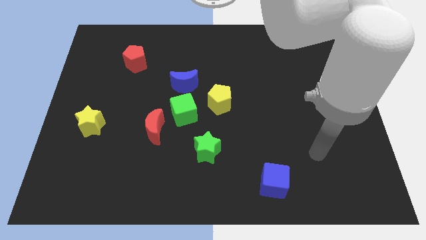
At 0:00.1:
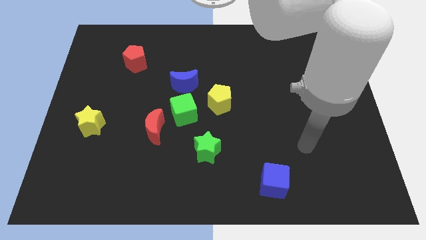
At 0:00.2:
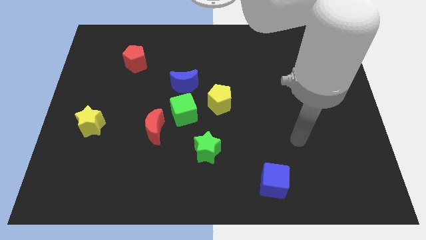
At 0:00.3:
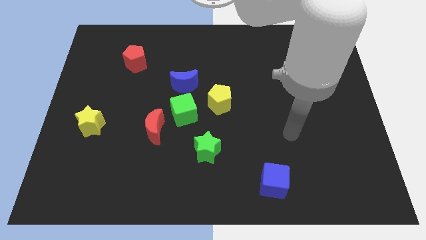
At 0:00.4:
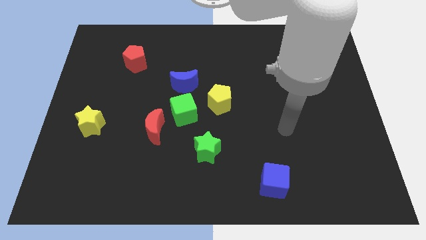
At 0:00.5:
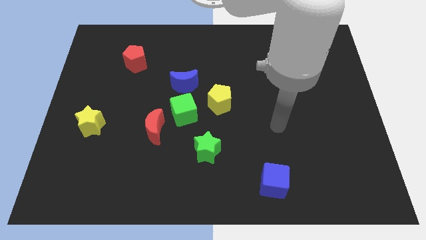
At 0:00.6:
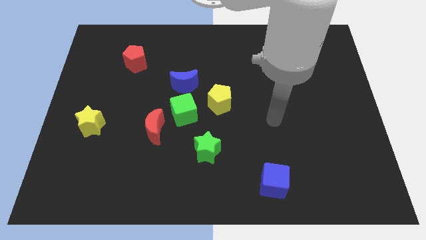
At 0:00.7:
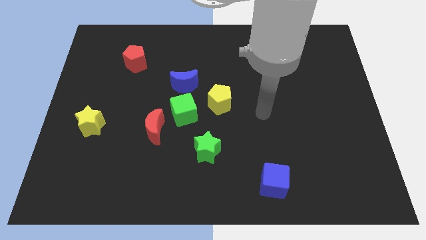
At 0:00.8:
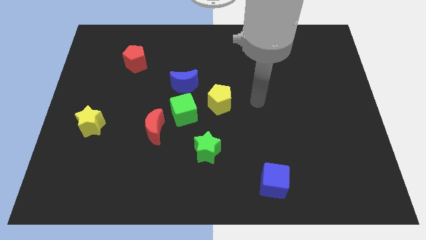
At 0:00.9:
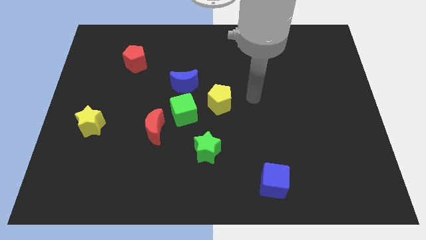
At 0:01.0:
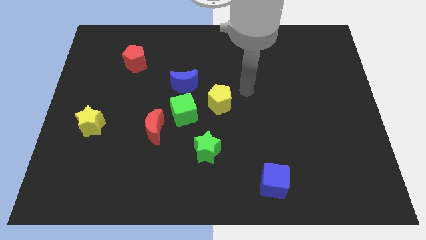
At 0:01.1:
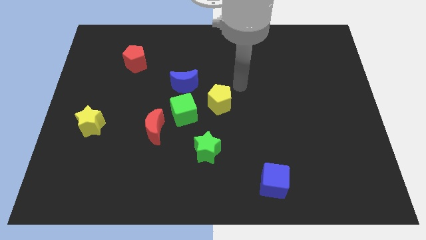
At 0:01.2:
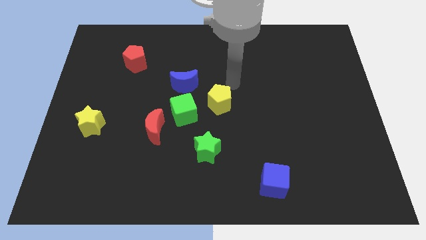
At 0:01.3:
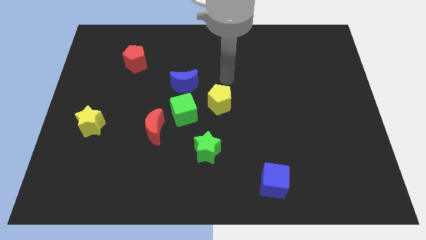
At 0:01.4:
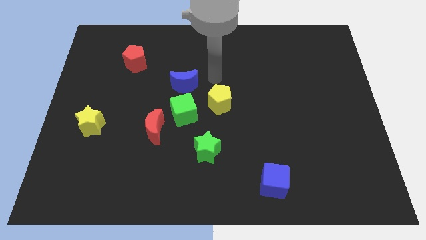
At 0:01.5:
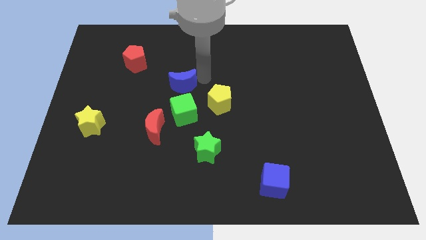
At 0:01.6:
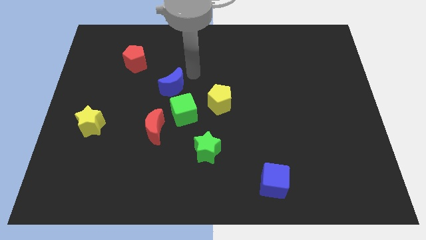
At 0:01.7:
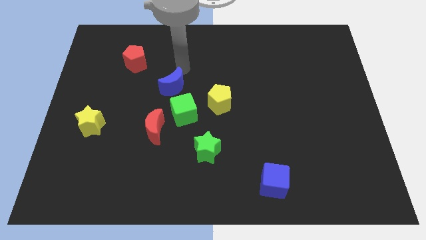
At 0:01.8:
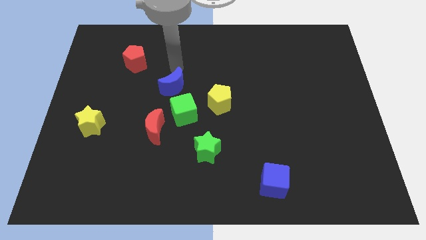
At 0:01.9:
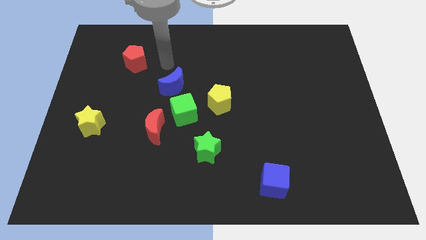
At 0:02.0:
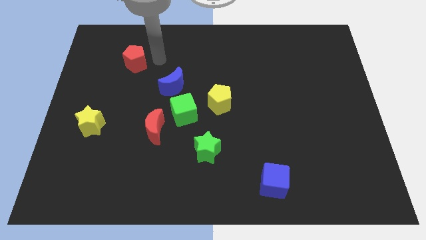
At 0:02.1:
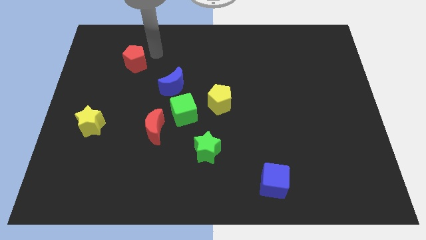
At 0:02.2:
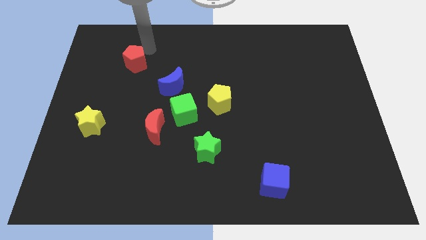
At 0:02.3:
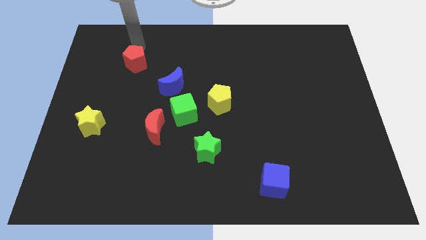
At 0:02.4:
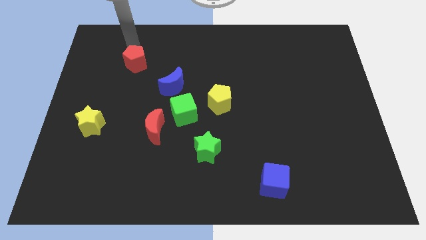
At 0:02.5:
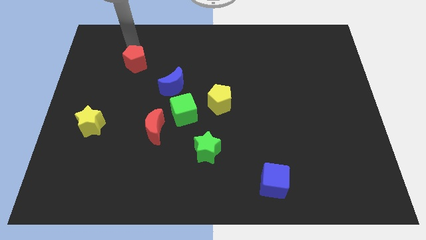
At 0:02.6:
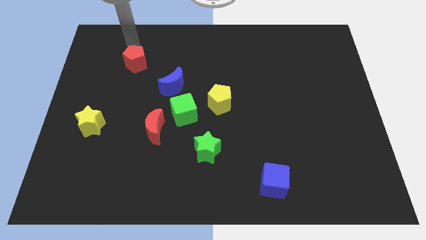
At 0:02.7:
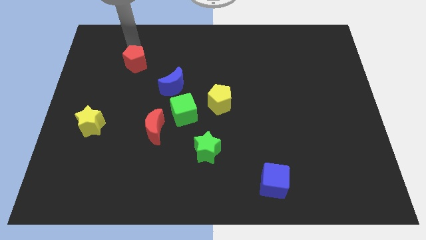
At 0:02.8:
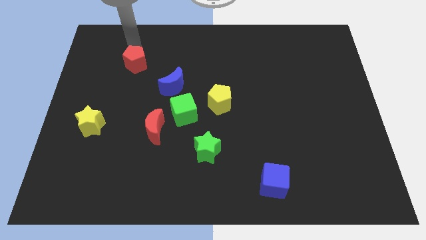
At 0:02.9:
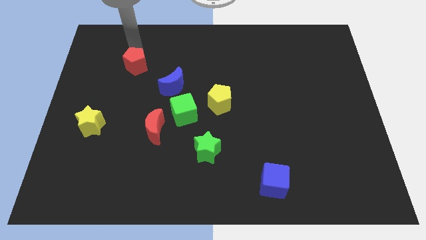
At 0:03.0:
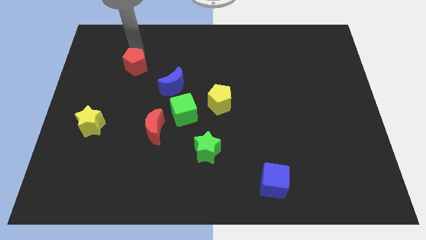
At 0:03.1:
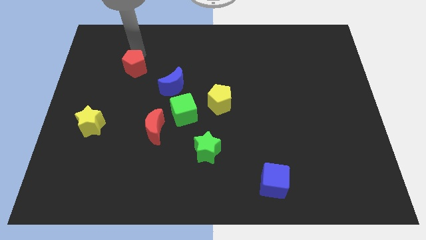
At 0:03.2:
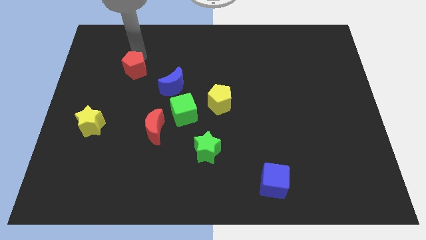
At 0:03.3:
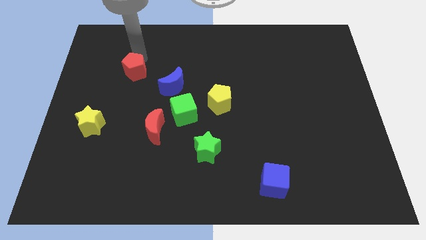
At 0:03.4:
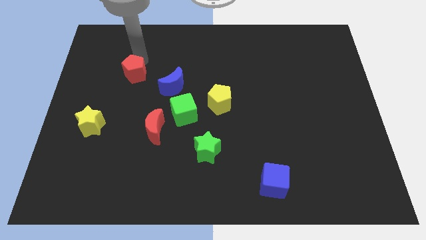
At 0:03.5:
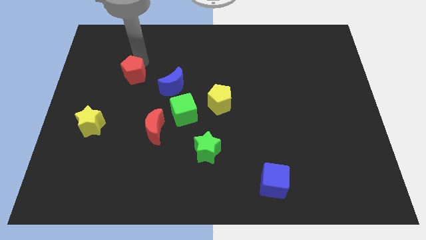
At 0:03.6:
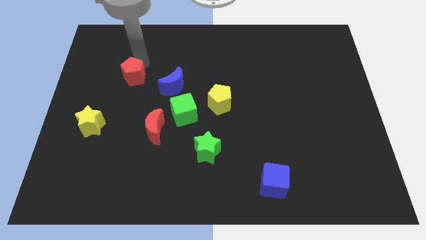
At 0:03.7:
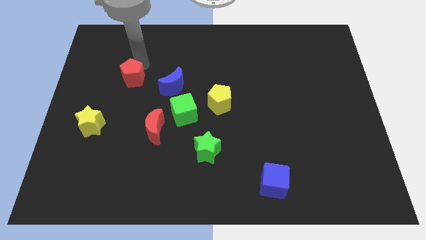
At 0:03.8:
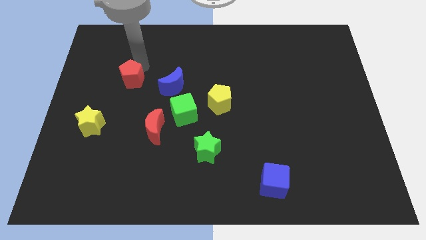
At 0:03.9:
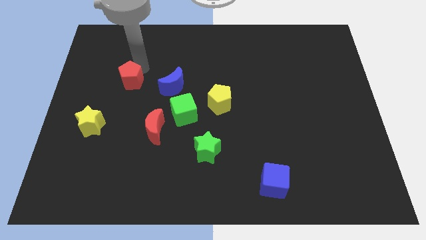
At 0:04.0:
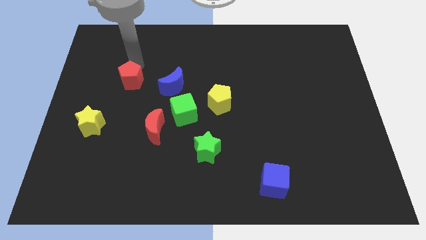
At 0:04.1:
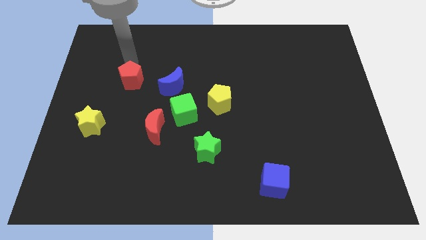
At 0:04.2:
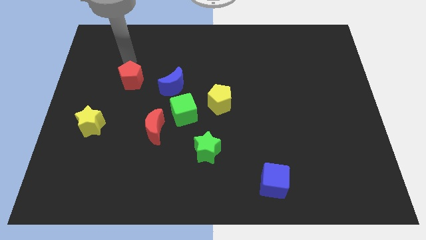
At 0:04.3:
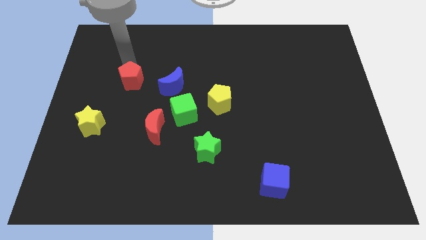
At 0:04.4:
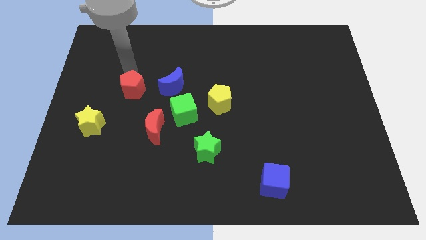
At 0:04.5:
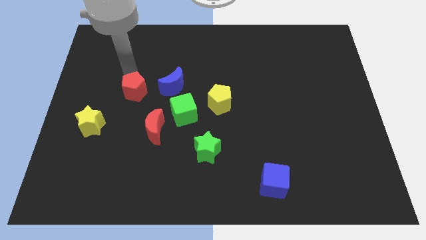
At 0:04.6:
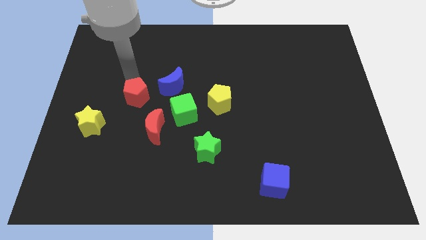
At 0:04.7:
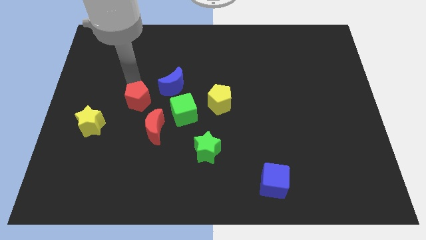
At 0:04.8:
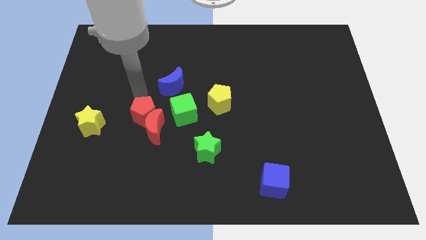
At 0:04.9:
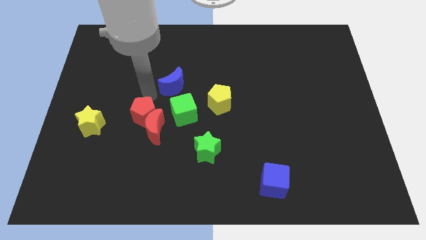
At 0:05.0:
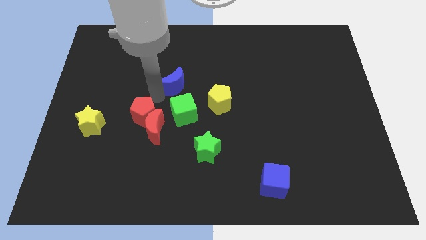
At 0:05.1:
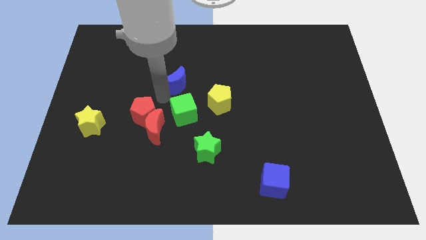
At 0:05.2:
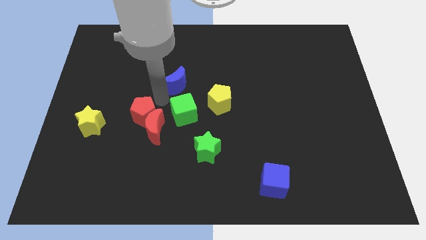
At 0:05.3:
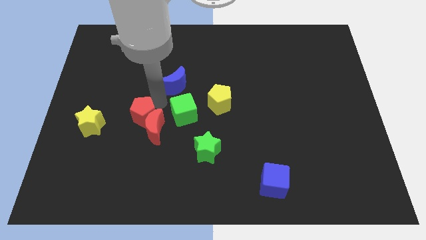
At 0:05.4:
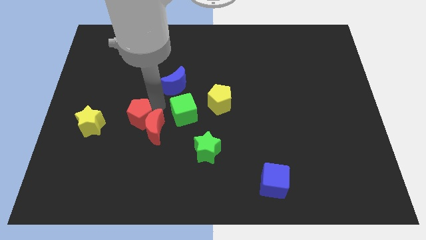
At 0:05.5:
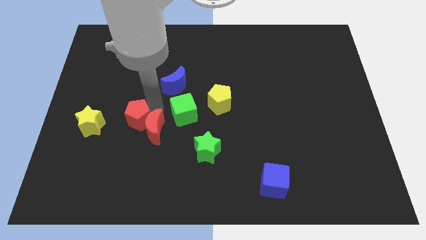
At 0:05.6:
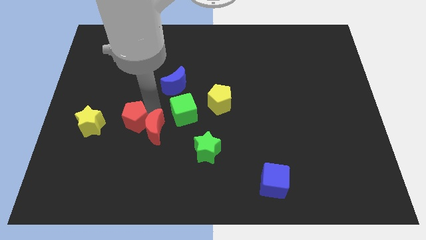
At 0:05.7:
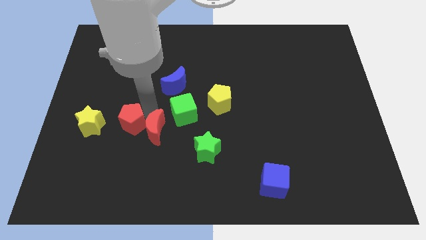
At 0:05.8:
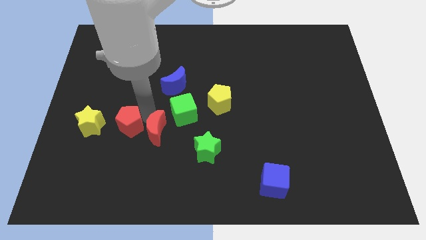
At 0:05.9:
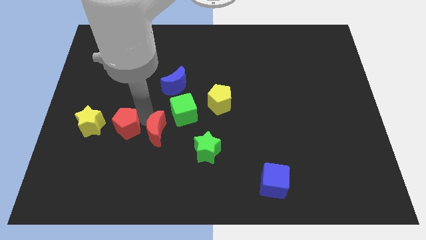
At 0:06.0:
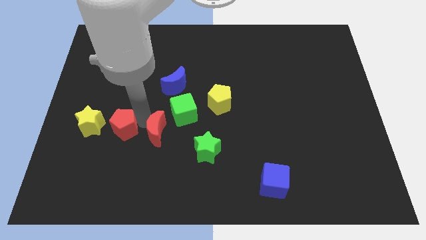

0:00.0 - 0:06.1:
slide the red pentagon to the bottom right side of the yellow star

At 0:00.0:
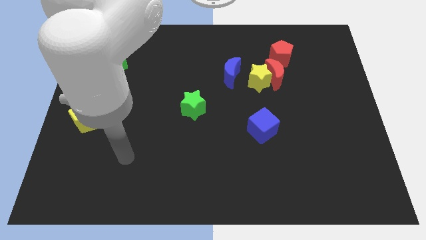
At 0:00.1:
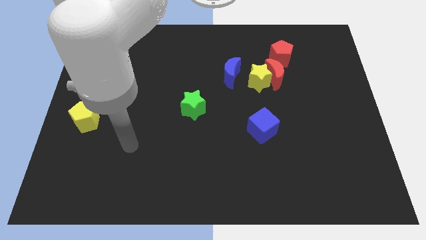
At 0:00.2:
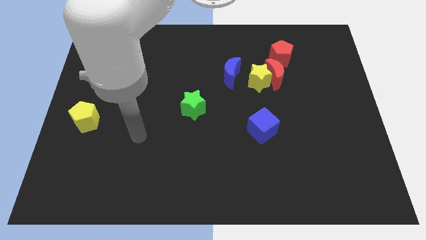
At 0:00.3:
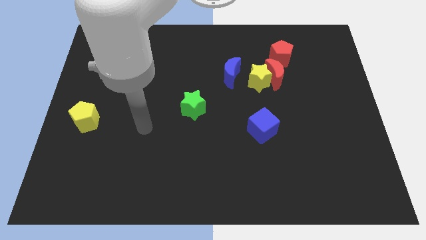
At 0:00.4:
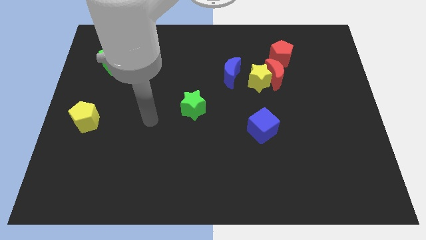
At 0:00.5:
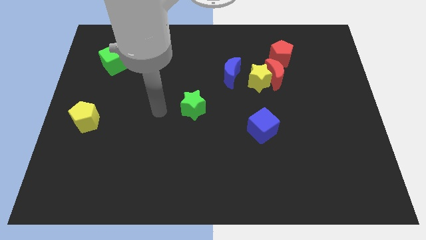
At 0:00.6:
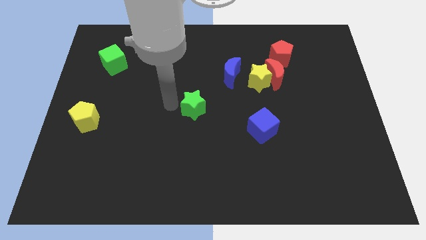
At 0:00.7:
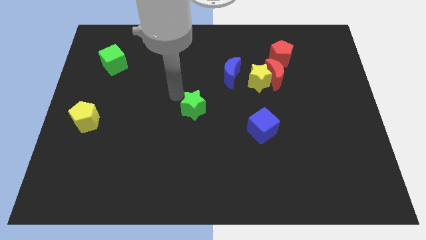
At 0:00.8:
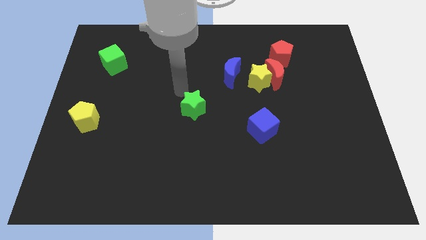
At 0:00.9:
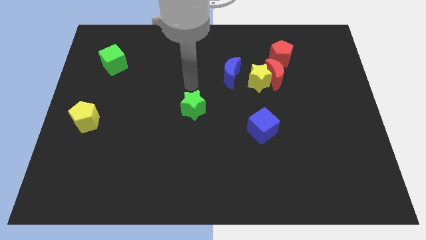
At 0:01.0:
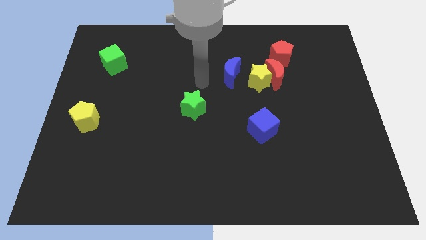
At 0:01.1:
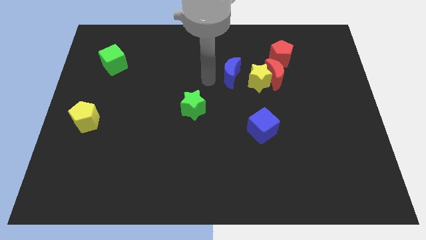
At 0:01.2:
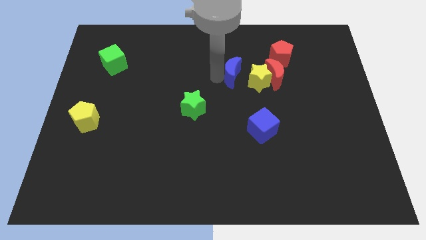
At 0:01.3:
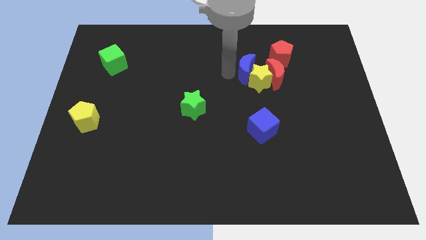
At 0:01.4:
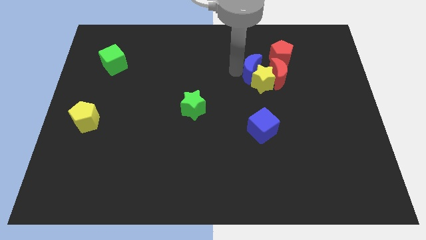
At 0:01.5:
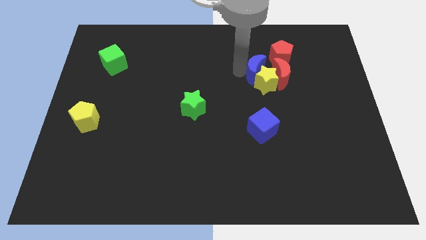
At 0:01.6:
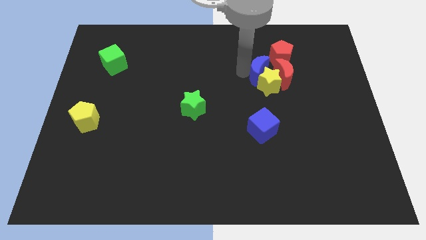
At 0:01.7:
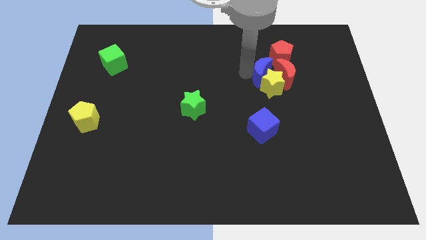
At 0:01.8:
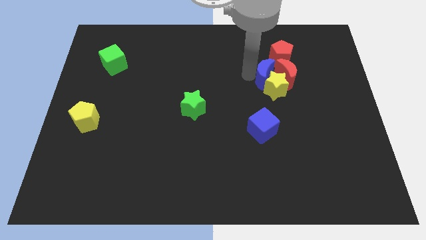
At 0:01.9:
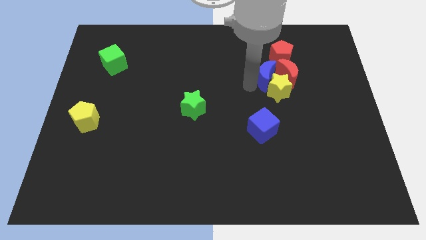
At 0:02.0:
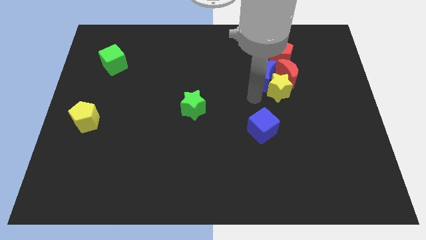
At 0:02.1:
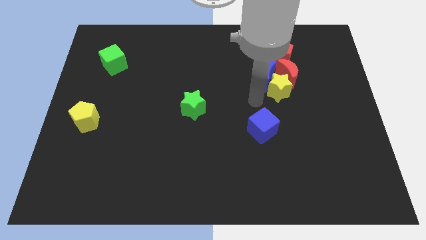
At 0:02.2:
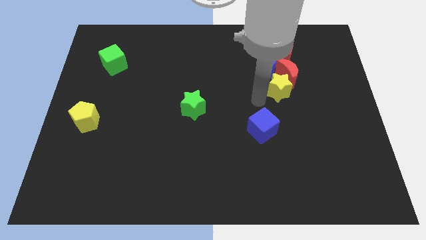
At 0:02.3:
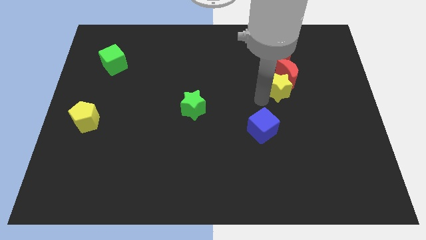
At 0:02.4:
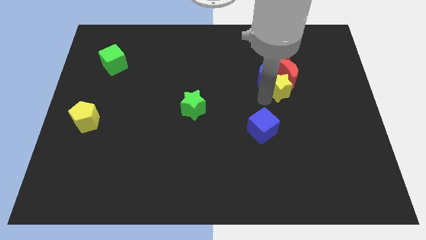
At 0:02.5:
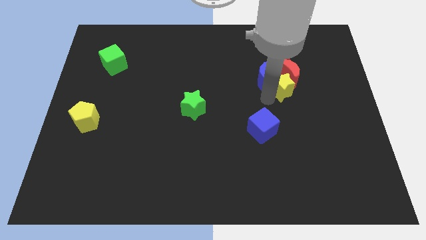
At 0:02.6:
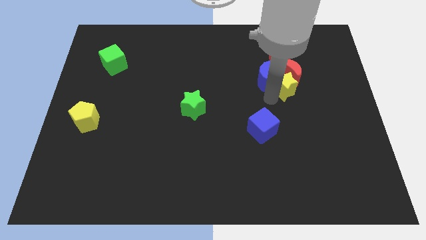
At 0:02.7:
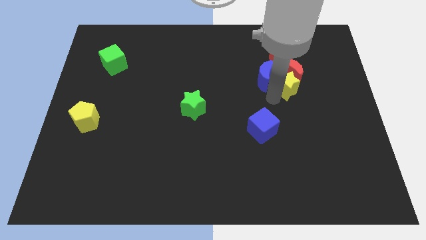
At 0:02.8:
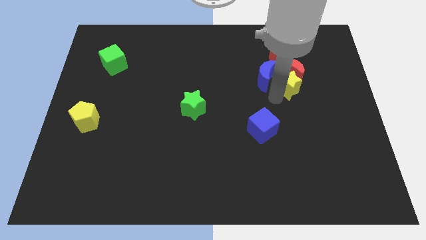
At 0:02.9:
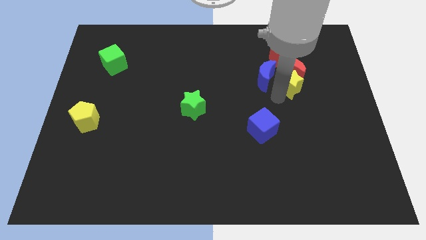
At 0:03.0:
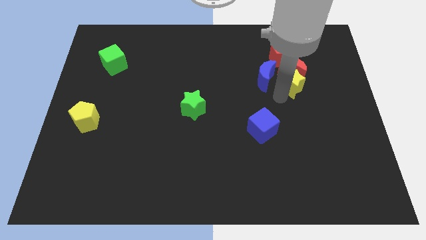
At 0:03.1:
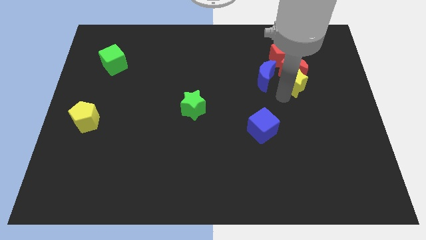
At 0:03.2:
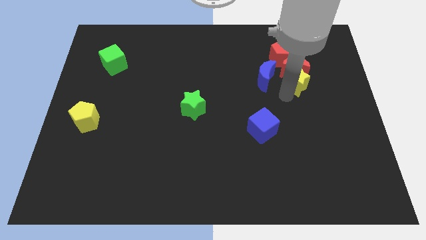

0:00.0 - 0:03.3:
move the yellow star to the bottom right side of the red pentagon
